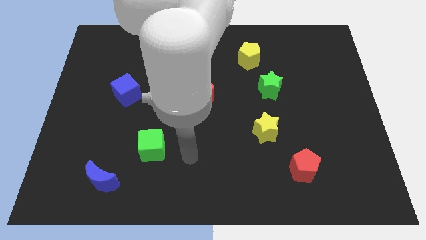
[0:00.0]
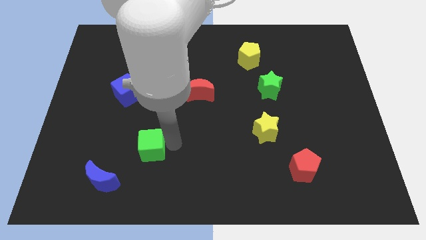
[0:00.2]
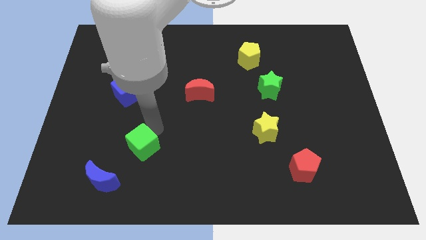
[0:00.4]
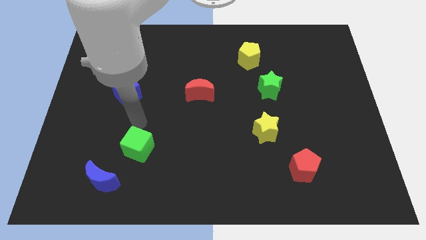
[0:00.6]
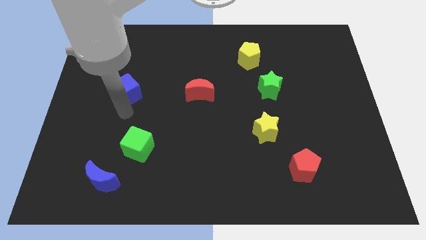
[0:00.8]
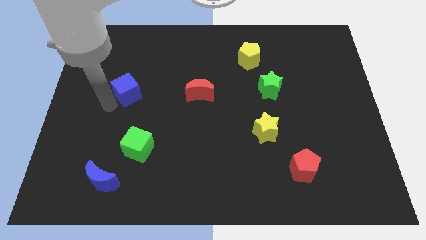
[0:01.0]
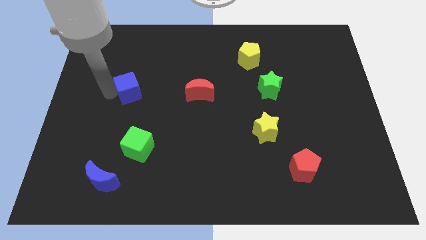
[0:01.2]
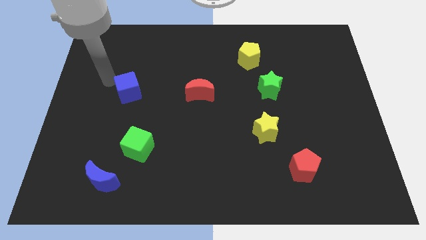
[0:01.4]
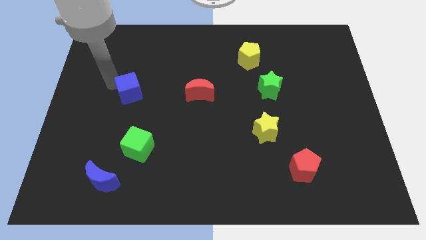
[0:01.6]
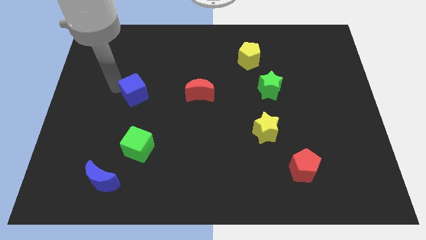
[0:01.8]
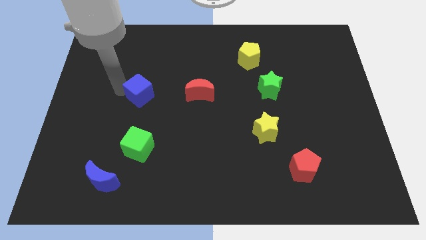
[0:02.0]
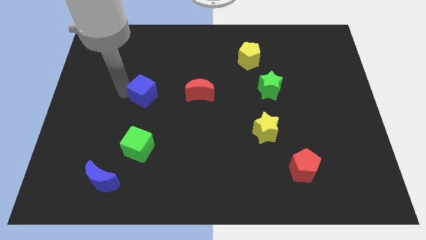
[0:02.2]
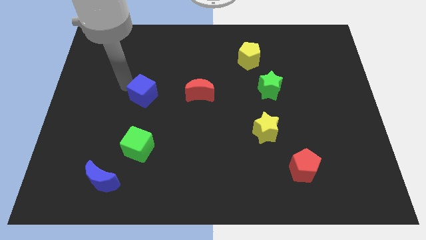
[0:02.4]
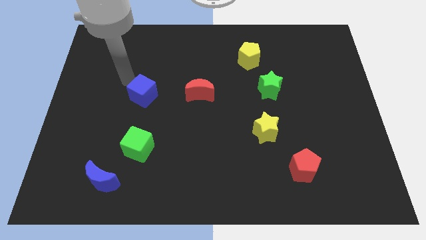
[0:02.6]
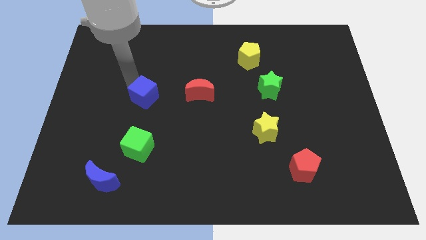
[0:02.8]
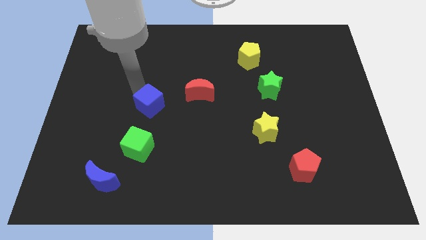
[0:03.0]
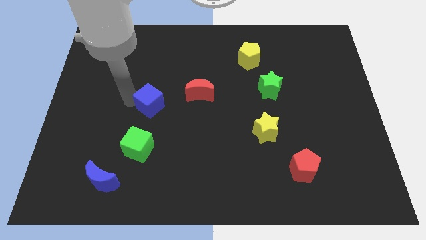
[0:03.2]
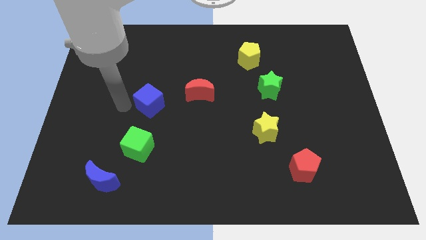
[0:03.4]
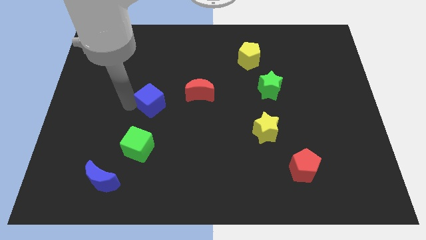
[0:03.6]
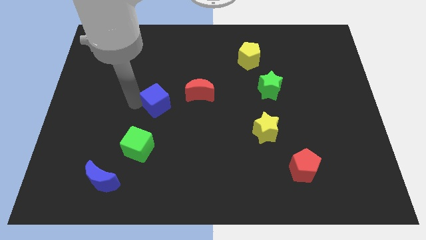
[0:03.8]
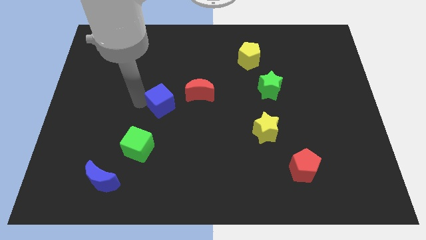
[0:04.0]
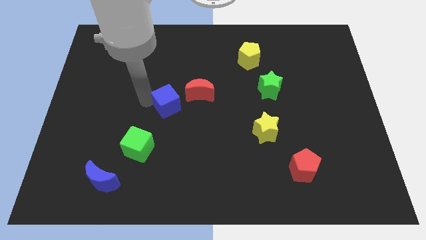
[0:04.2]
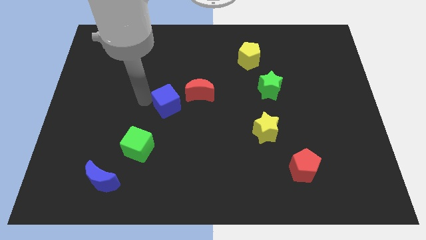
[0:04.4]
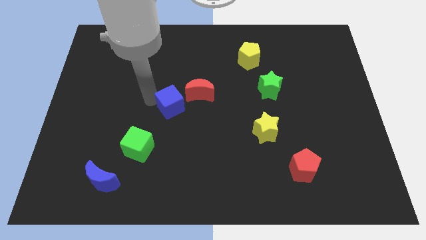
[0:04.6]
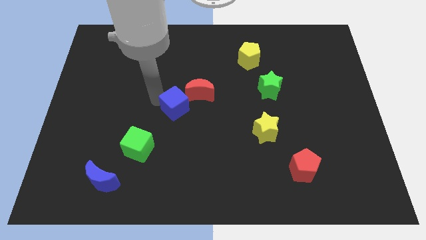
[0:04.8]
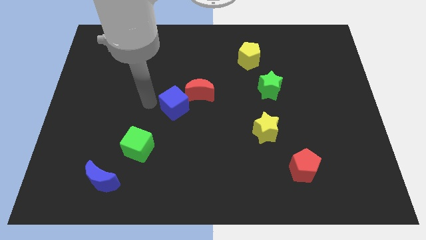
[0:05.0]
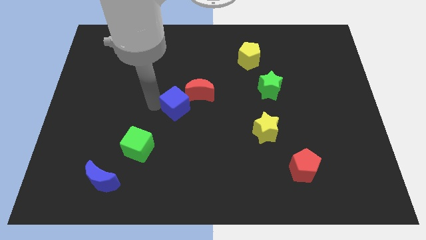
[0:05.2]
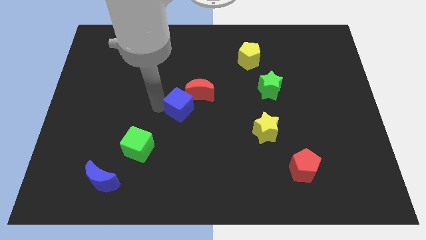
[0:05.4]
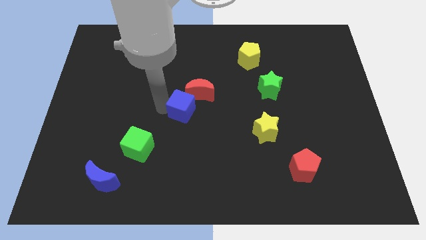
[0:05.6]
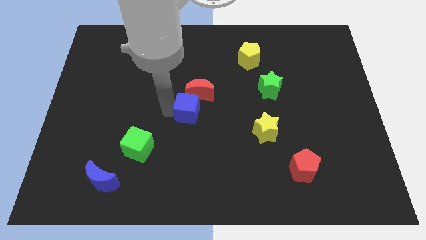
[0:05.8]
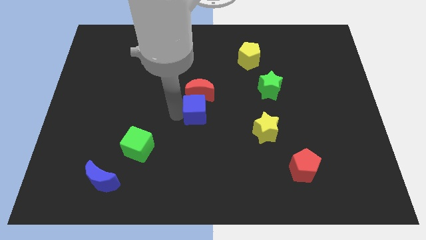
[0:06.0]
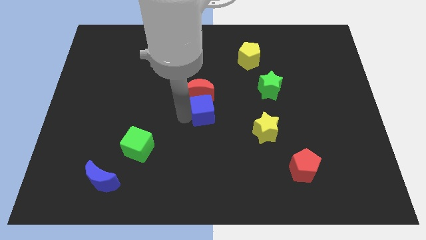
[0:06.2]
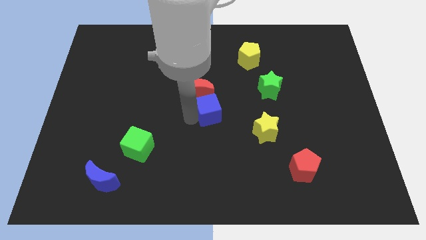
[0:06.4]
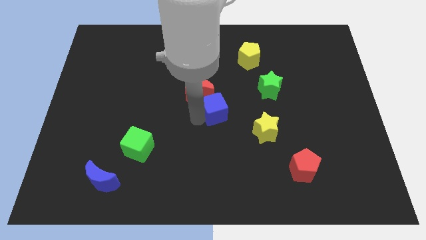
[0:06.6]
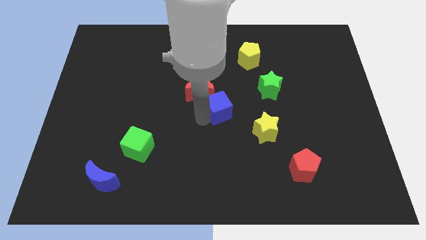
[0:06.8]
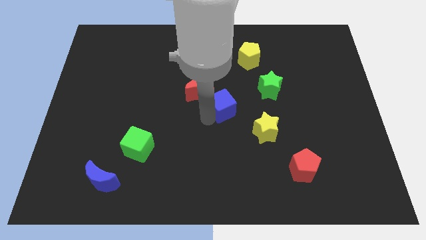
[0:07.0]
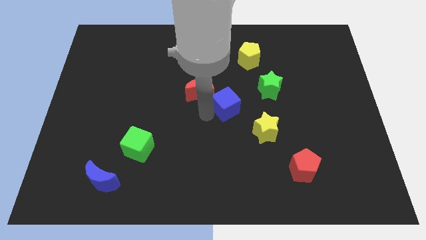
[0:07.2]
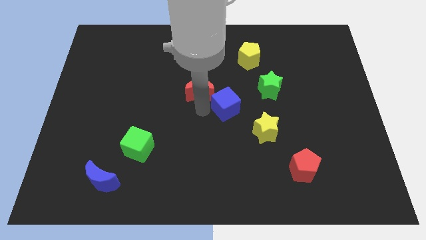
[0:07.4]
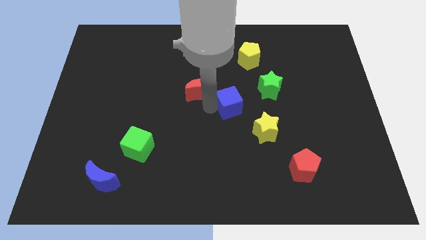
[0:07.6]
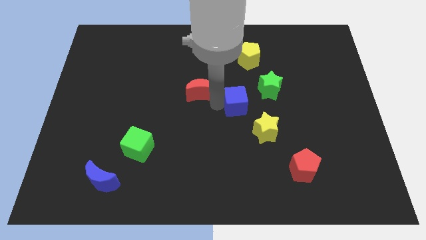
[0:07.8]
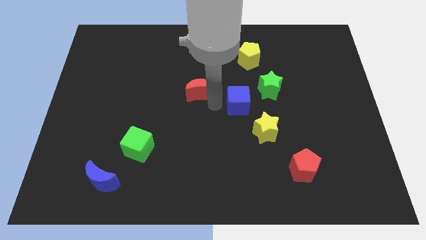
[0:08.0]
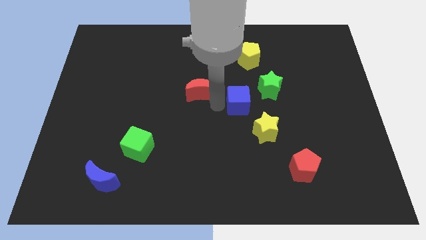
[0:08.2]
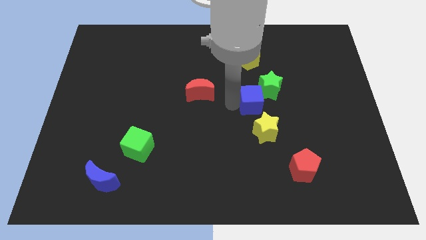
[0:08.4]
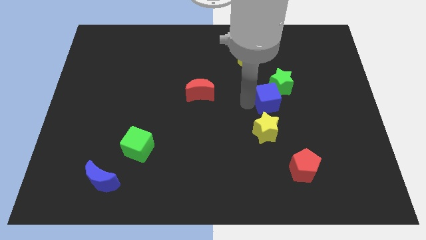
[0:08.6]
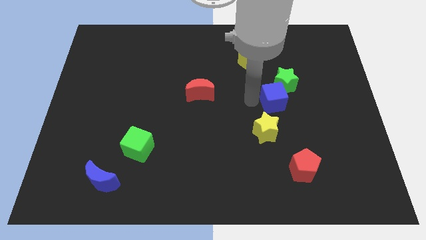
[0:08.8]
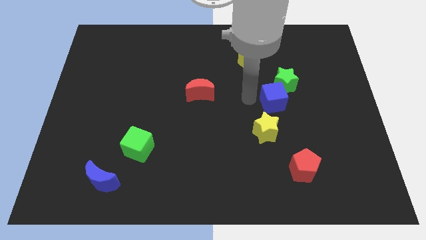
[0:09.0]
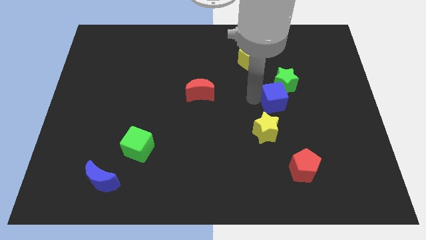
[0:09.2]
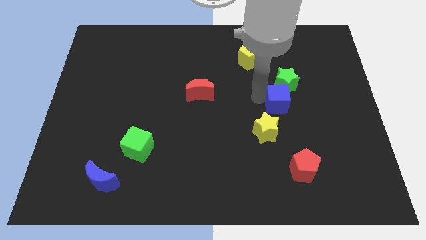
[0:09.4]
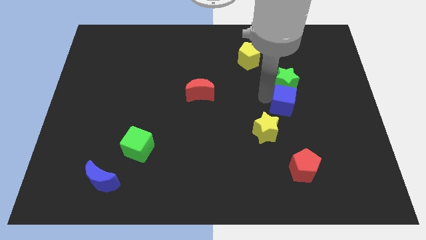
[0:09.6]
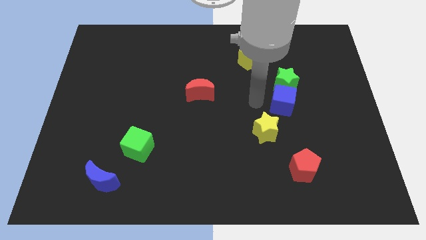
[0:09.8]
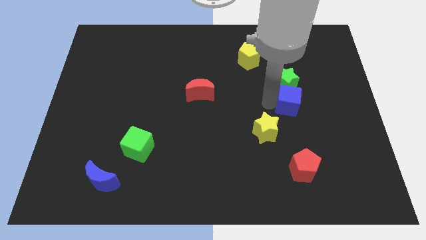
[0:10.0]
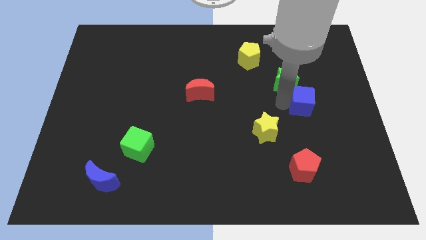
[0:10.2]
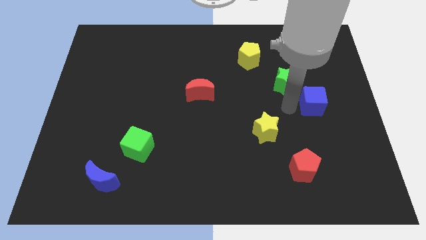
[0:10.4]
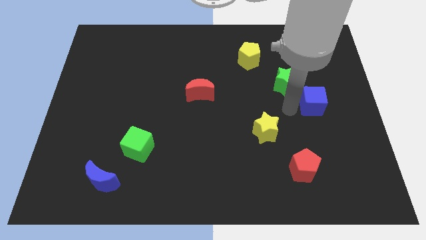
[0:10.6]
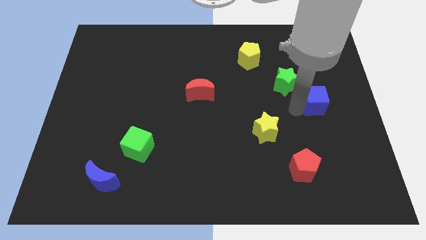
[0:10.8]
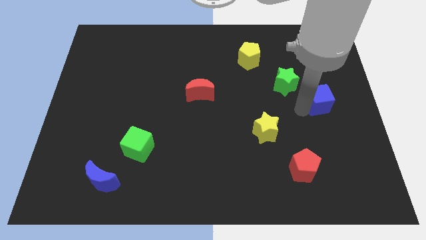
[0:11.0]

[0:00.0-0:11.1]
slide the blue cube to the right side of the board

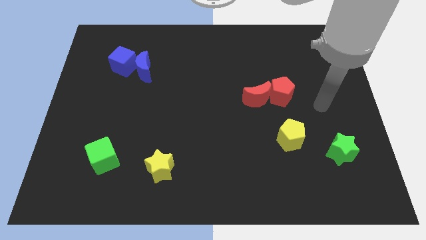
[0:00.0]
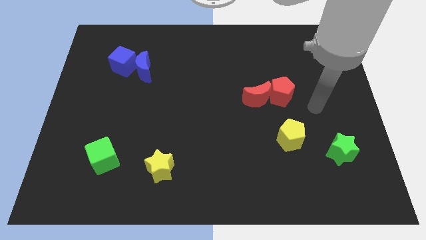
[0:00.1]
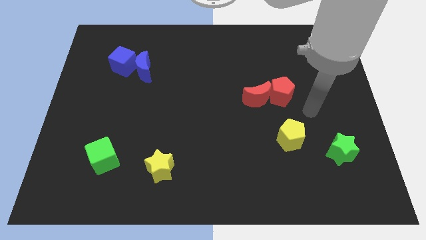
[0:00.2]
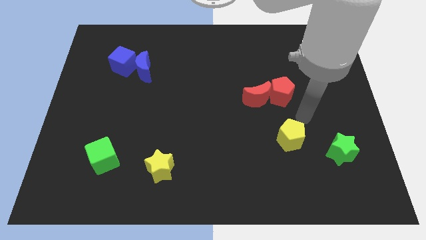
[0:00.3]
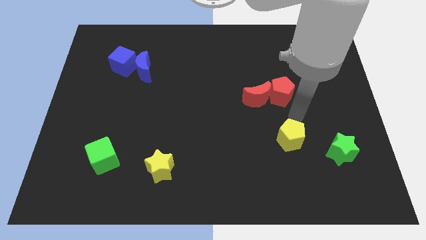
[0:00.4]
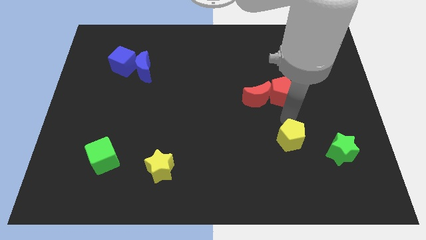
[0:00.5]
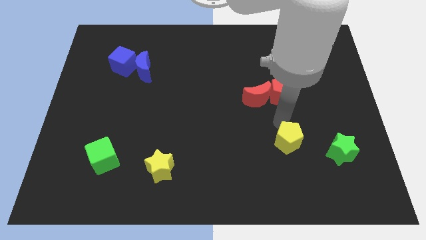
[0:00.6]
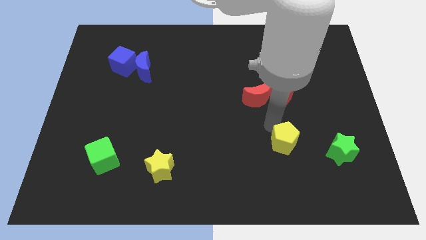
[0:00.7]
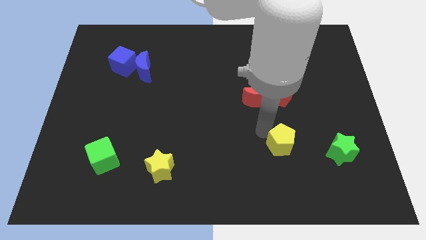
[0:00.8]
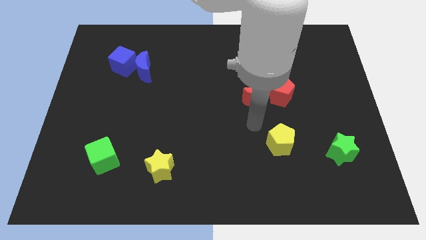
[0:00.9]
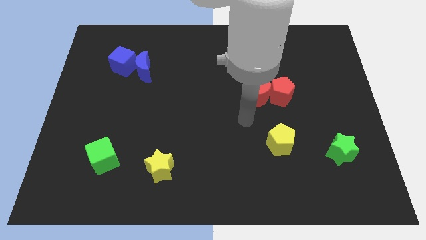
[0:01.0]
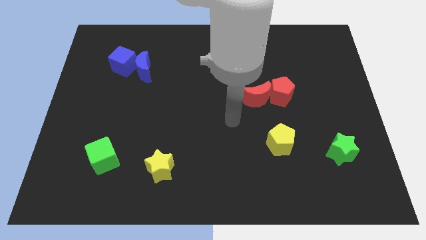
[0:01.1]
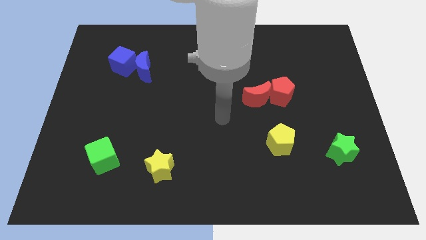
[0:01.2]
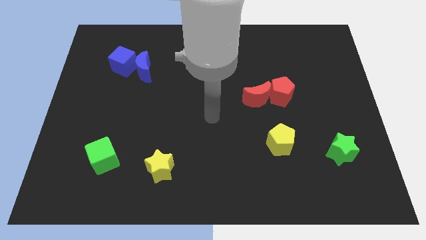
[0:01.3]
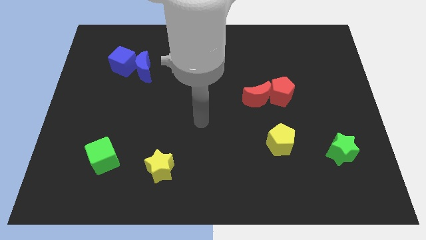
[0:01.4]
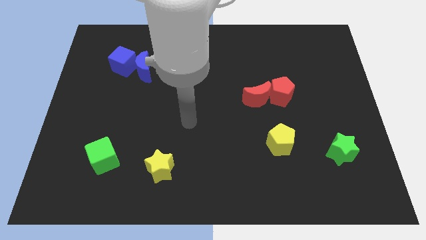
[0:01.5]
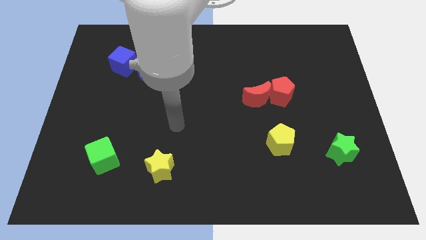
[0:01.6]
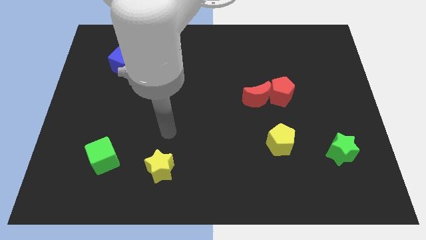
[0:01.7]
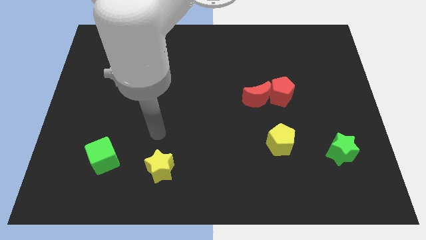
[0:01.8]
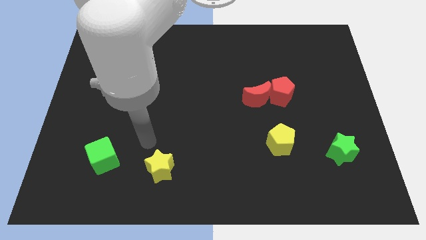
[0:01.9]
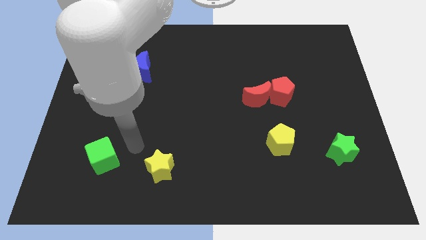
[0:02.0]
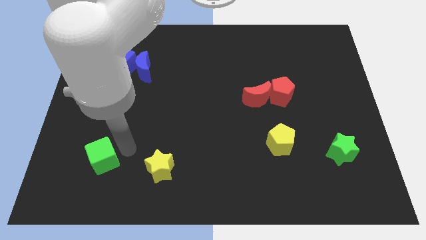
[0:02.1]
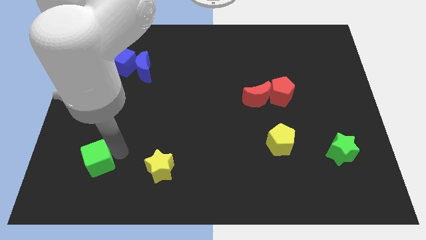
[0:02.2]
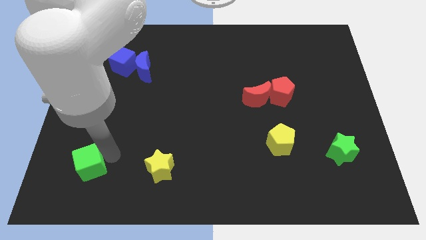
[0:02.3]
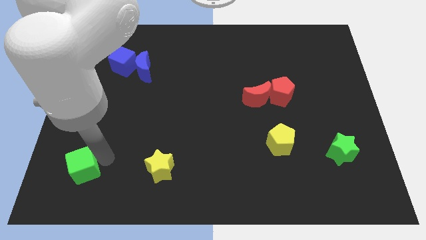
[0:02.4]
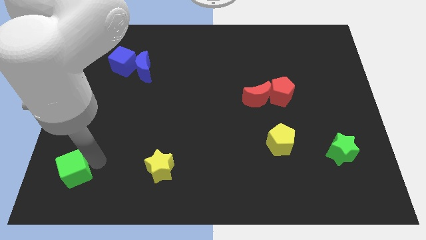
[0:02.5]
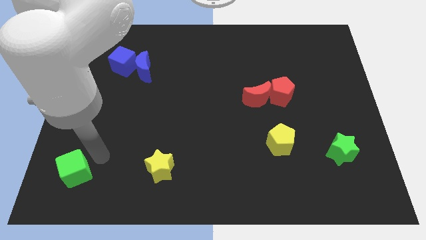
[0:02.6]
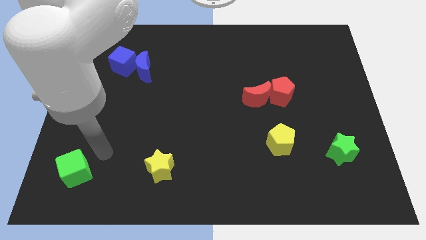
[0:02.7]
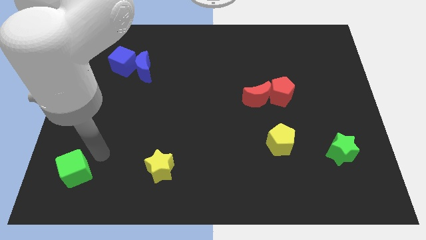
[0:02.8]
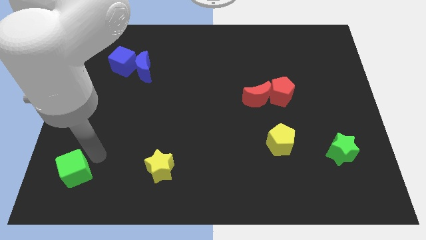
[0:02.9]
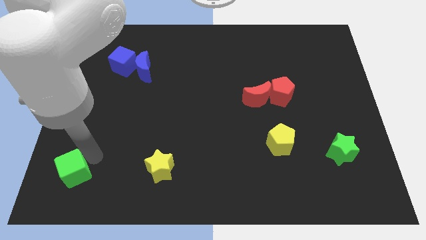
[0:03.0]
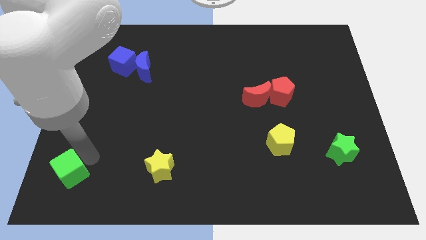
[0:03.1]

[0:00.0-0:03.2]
move the green cube to the bottom left of the board
